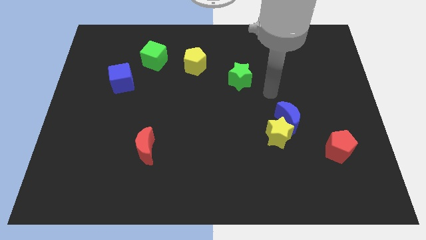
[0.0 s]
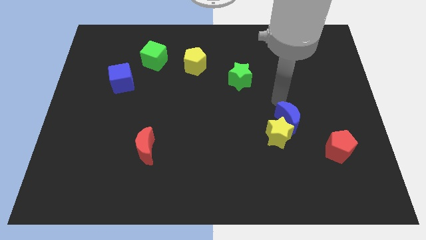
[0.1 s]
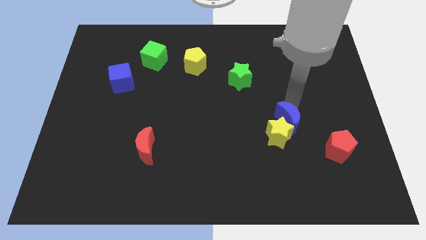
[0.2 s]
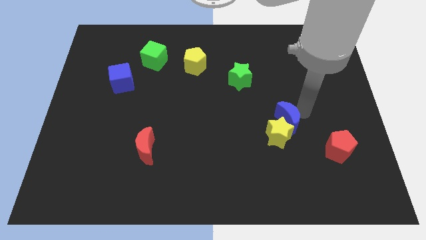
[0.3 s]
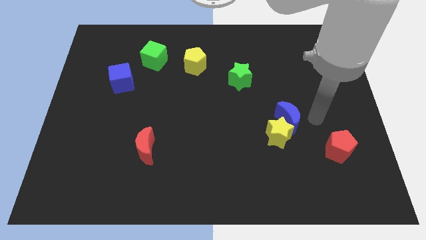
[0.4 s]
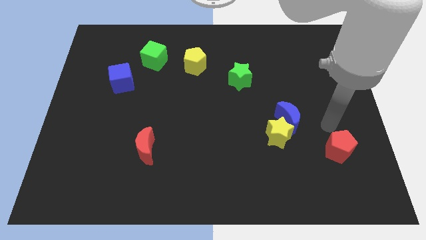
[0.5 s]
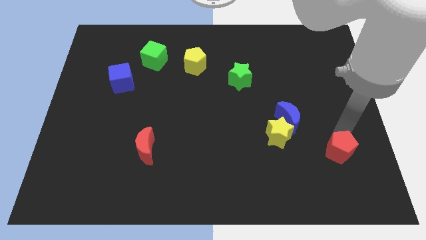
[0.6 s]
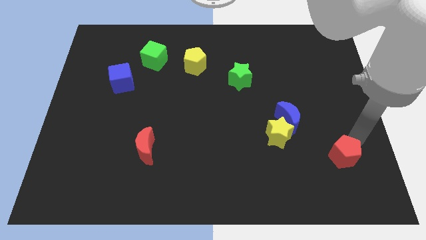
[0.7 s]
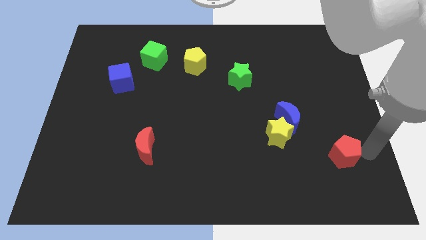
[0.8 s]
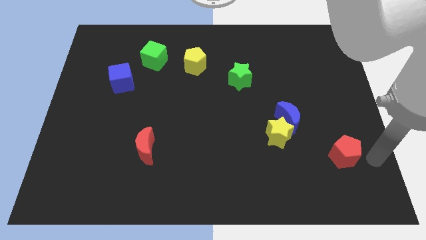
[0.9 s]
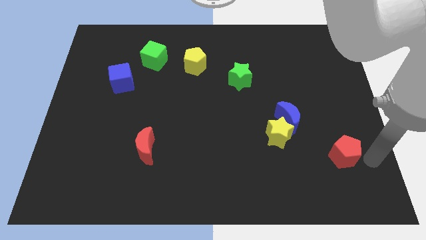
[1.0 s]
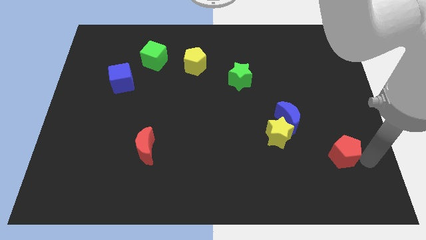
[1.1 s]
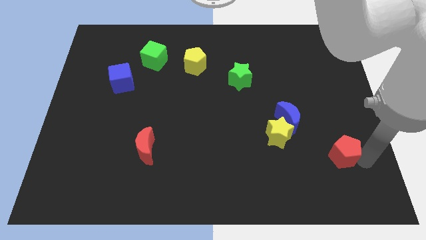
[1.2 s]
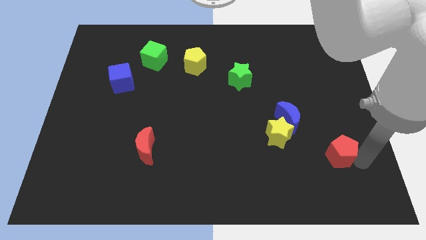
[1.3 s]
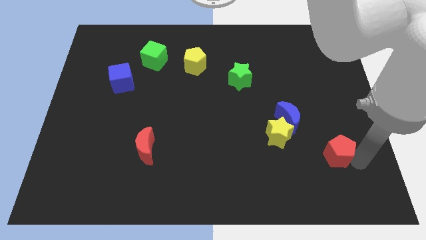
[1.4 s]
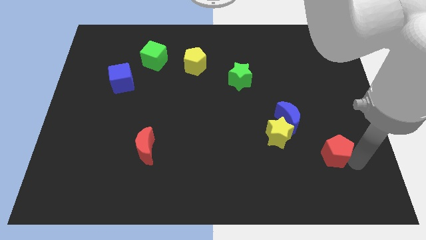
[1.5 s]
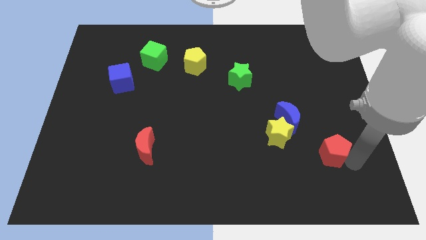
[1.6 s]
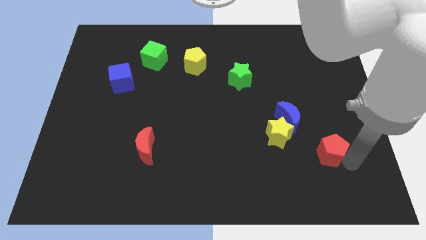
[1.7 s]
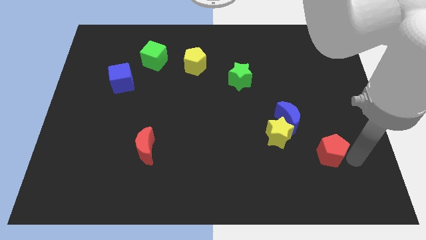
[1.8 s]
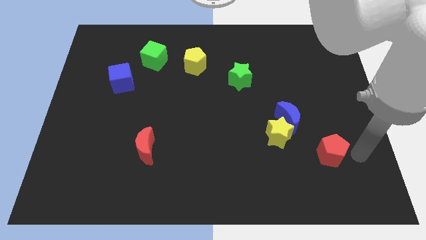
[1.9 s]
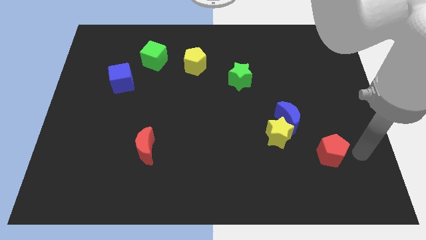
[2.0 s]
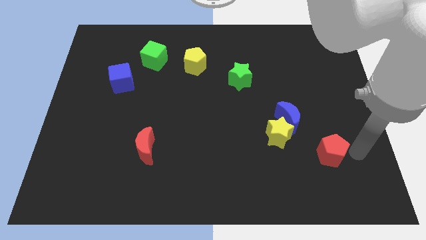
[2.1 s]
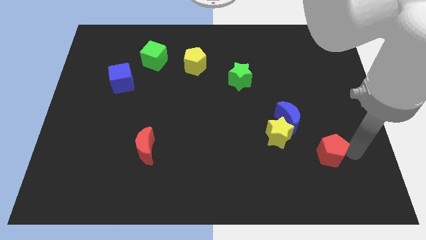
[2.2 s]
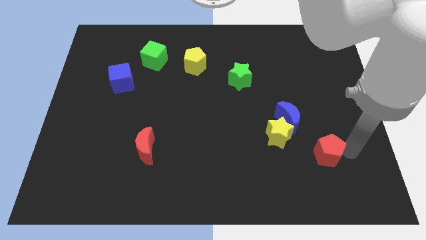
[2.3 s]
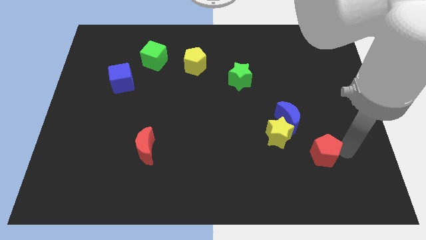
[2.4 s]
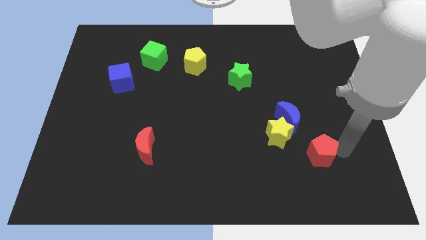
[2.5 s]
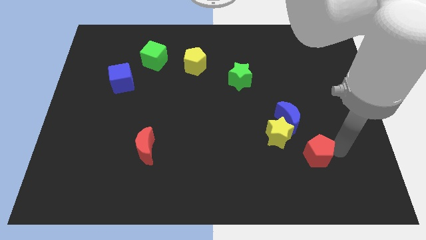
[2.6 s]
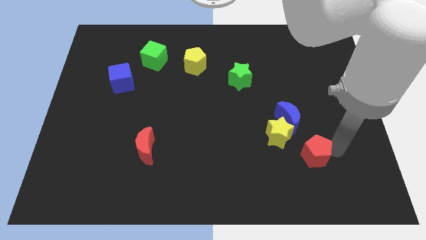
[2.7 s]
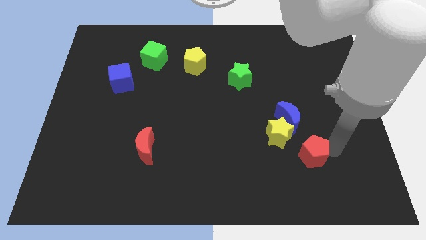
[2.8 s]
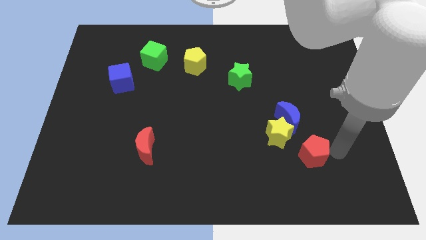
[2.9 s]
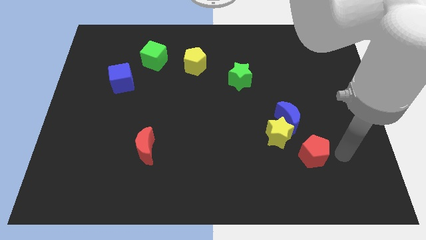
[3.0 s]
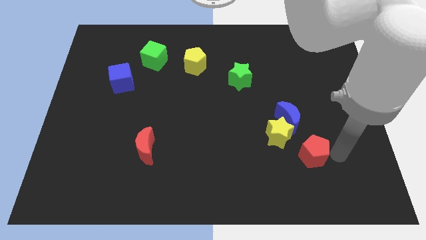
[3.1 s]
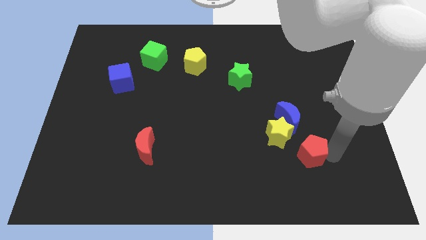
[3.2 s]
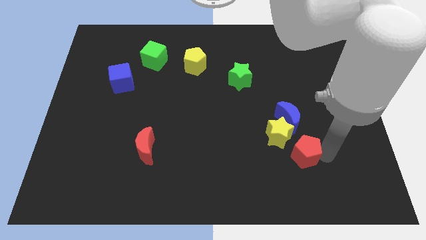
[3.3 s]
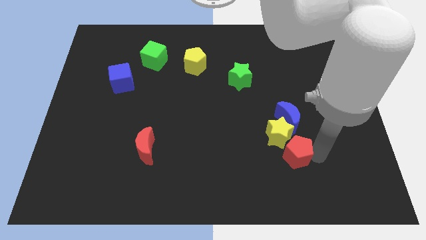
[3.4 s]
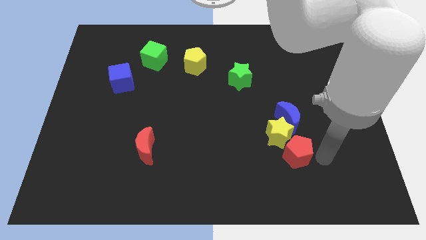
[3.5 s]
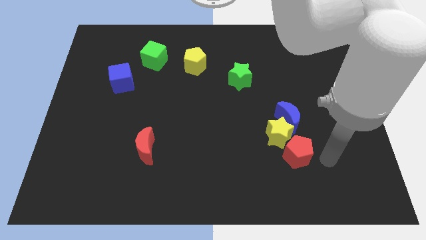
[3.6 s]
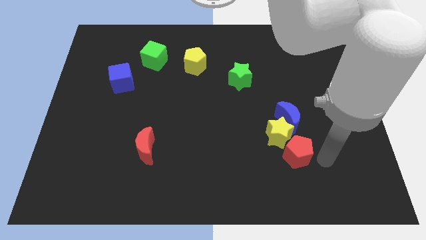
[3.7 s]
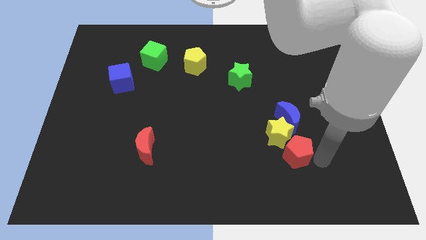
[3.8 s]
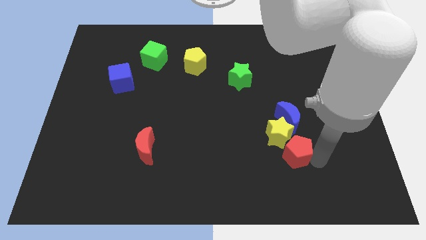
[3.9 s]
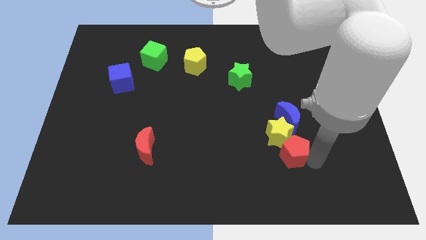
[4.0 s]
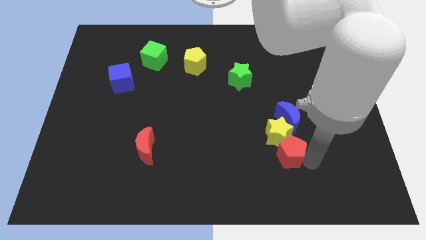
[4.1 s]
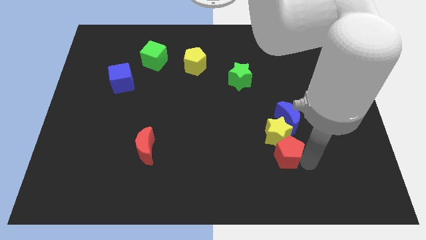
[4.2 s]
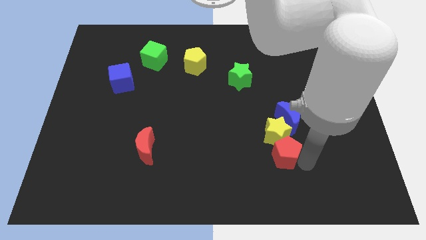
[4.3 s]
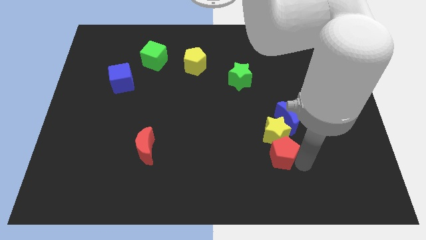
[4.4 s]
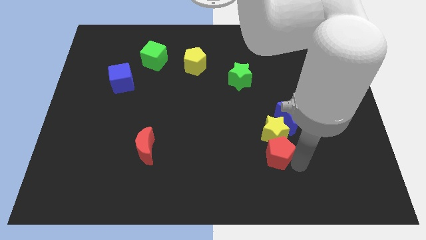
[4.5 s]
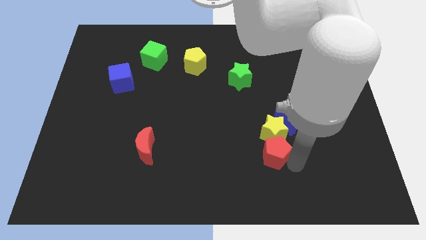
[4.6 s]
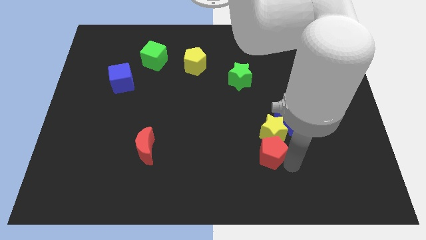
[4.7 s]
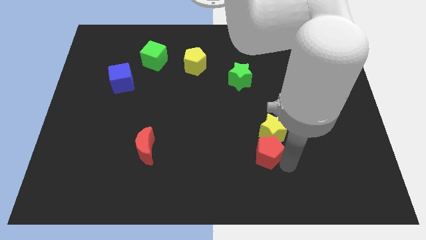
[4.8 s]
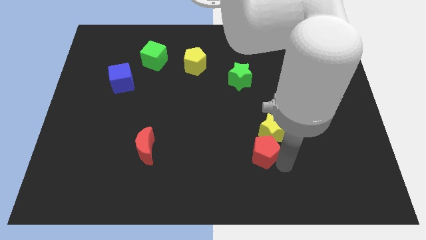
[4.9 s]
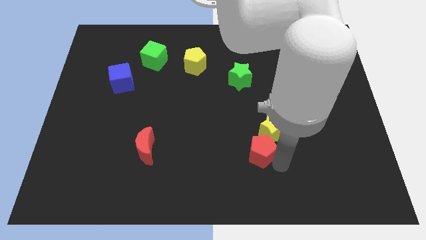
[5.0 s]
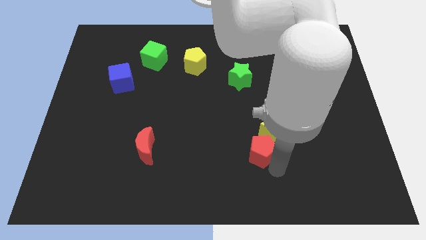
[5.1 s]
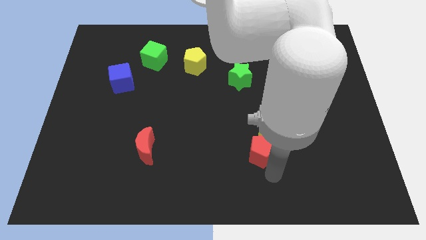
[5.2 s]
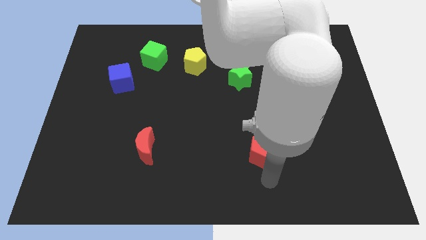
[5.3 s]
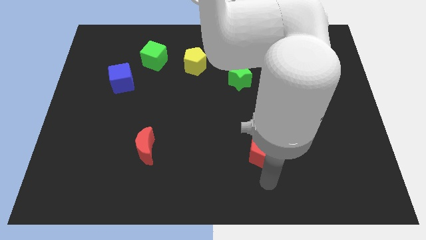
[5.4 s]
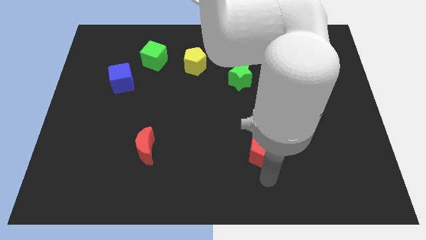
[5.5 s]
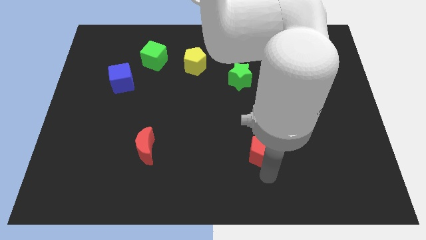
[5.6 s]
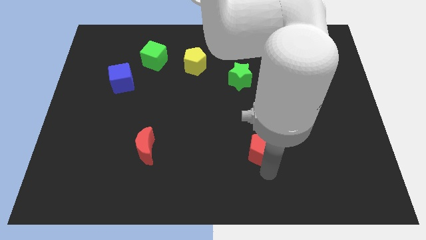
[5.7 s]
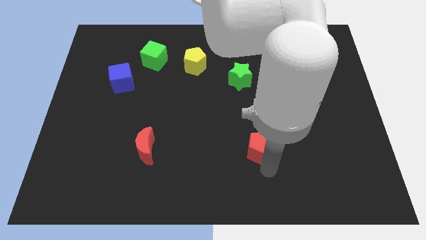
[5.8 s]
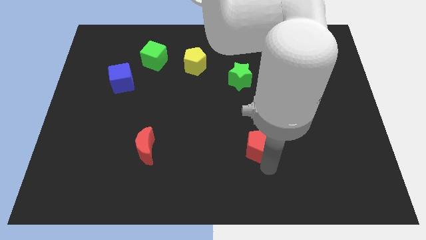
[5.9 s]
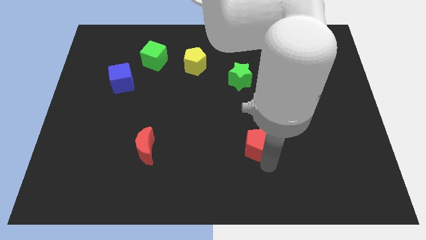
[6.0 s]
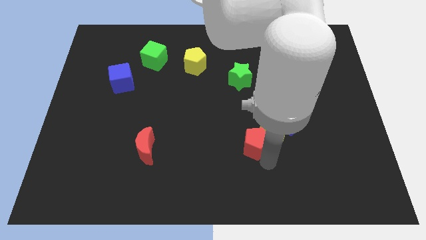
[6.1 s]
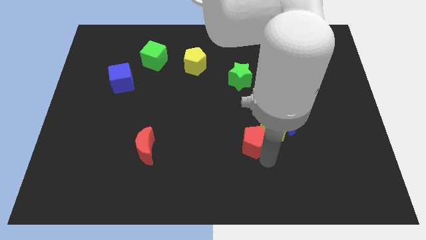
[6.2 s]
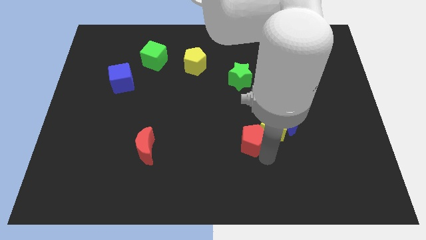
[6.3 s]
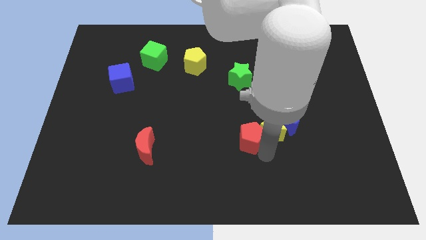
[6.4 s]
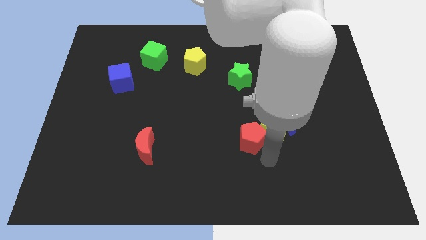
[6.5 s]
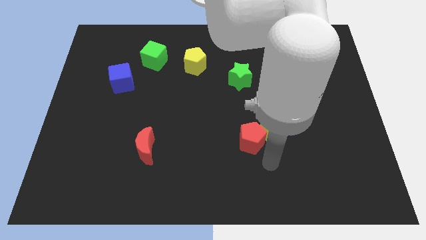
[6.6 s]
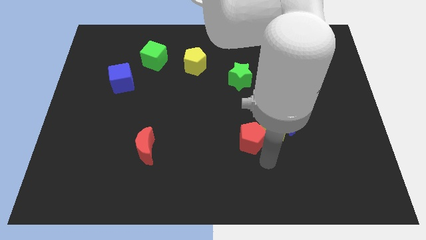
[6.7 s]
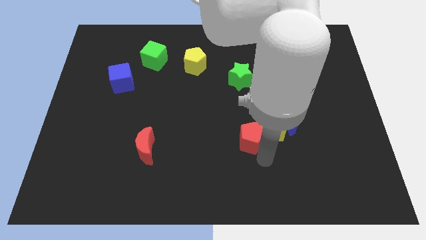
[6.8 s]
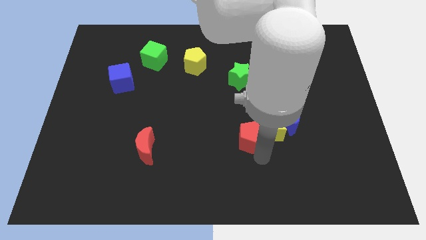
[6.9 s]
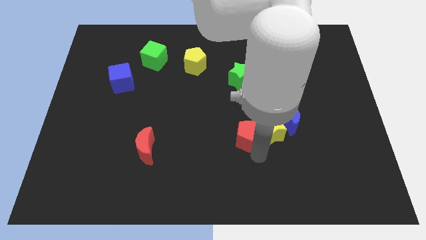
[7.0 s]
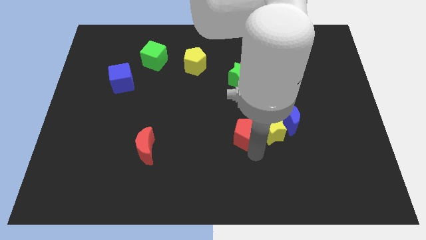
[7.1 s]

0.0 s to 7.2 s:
slide the red pentagon to the center

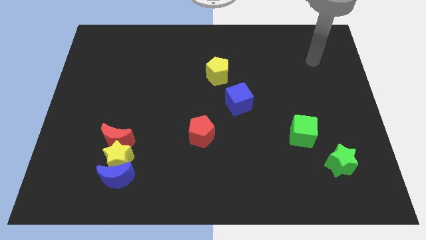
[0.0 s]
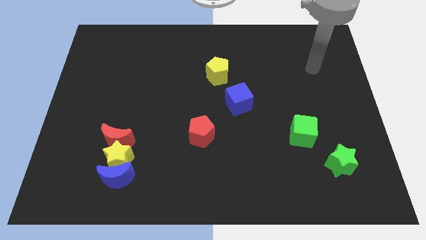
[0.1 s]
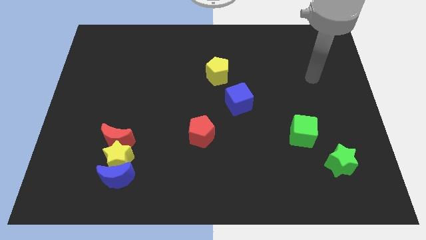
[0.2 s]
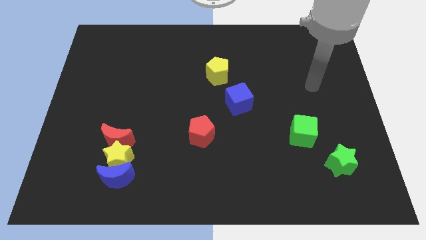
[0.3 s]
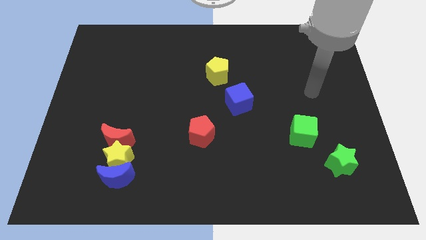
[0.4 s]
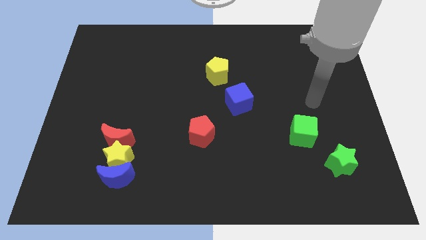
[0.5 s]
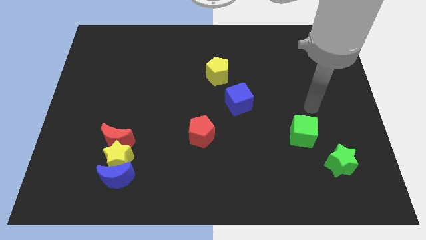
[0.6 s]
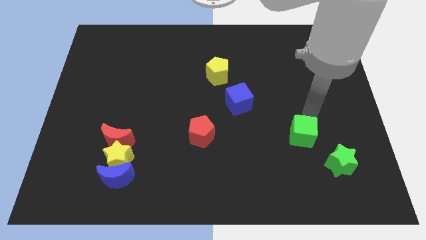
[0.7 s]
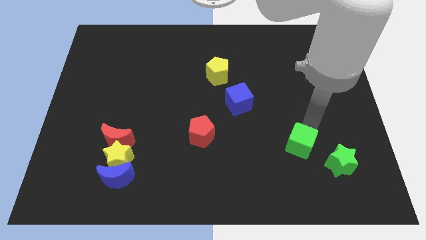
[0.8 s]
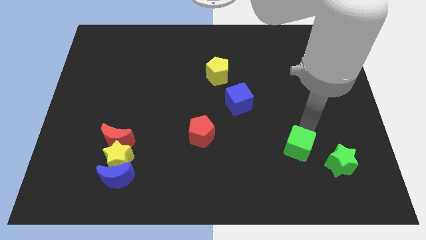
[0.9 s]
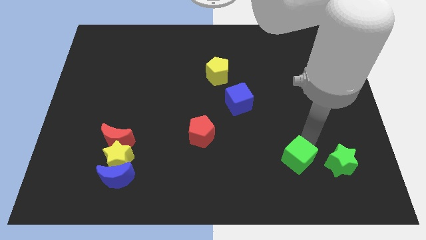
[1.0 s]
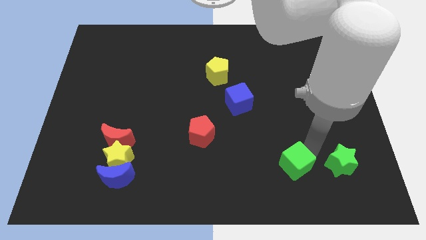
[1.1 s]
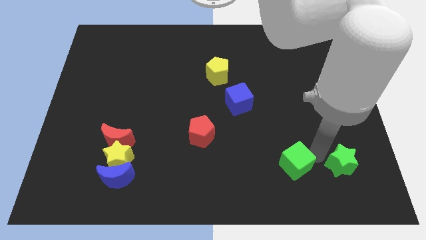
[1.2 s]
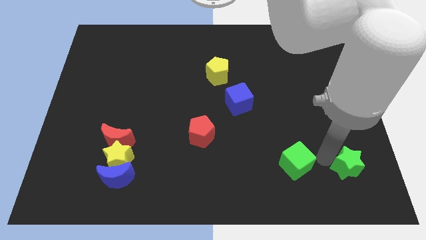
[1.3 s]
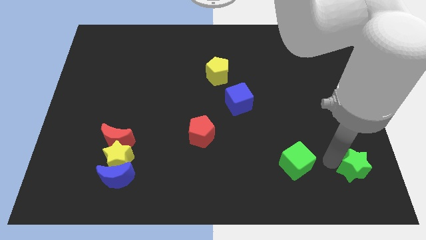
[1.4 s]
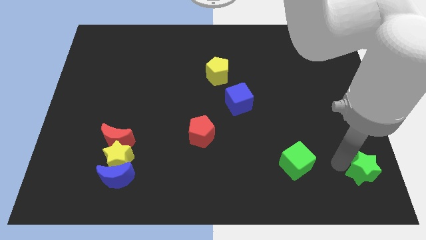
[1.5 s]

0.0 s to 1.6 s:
push the green star to the bottom right of the board
